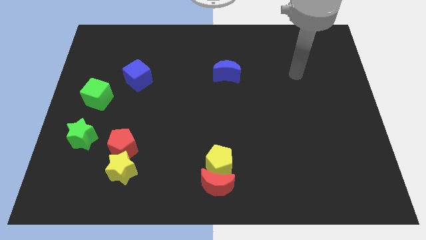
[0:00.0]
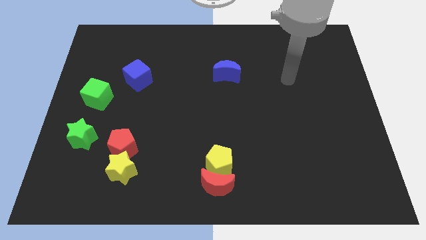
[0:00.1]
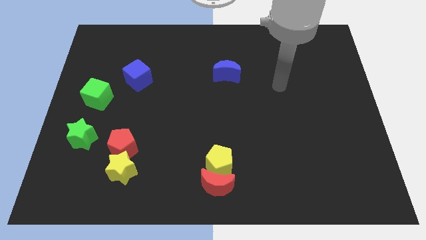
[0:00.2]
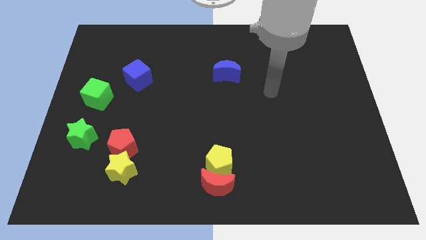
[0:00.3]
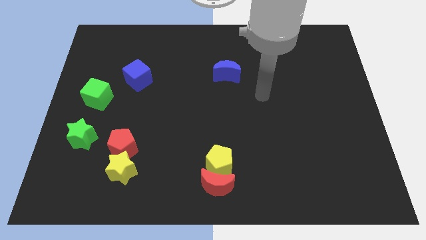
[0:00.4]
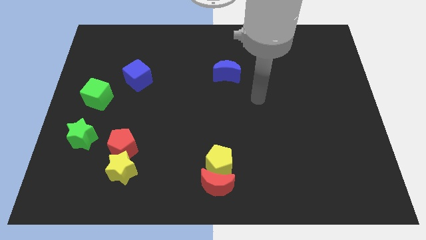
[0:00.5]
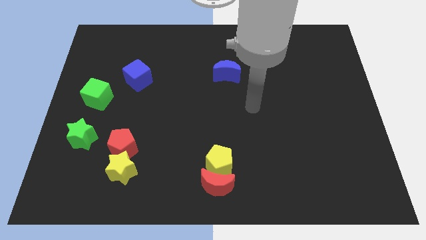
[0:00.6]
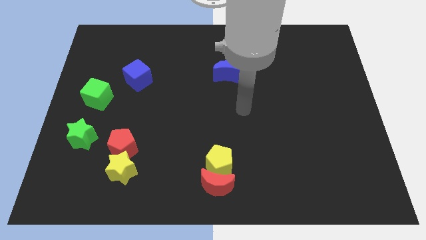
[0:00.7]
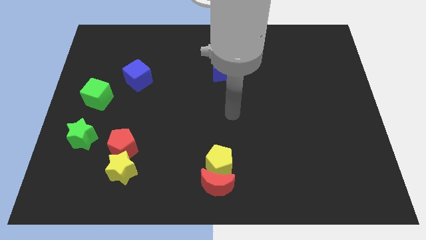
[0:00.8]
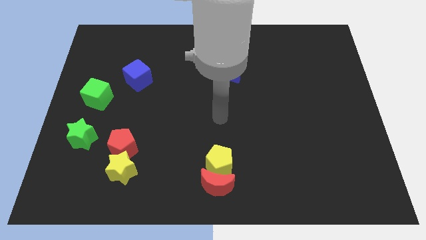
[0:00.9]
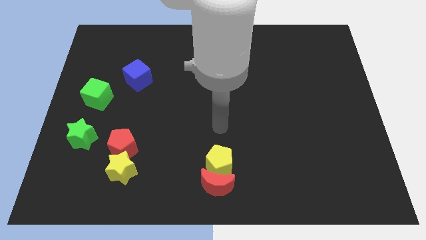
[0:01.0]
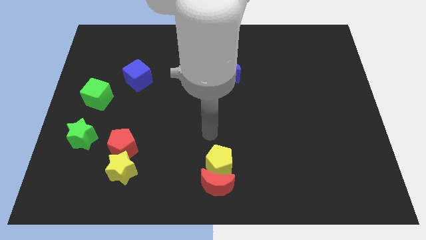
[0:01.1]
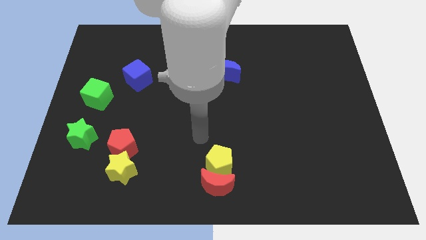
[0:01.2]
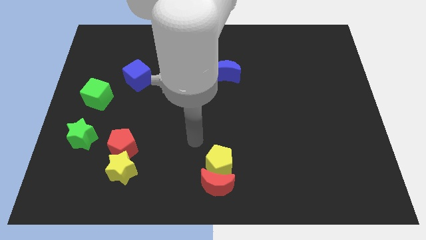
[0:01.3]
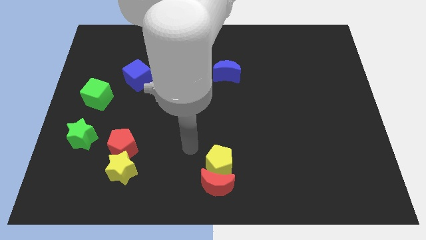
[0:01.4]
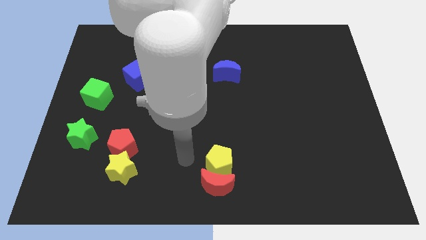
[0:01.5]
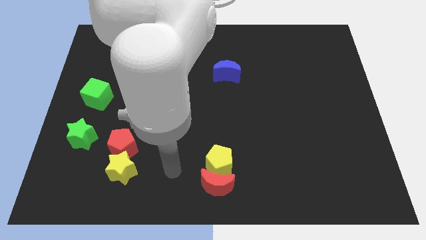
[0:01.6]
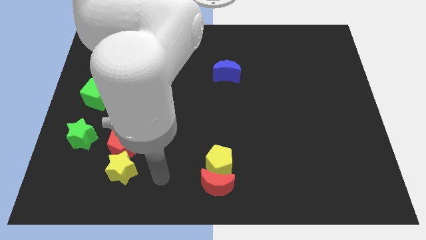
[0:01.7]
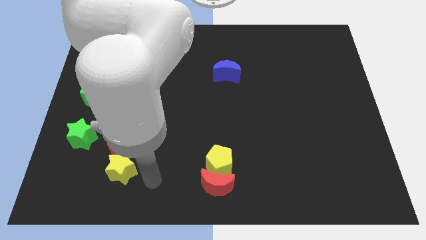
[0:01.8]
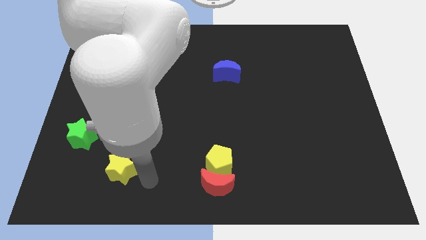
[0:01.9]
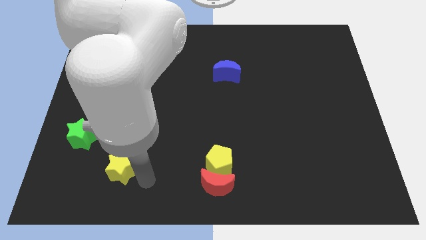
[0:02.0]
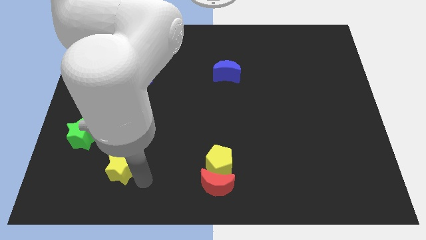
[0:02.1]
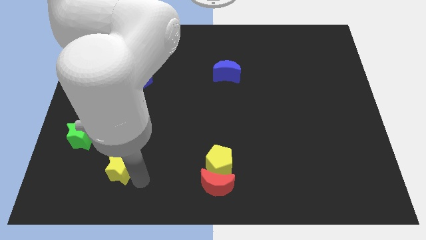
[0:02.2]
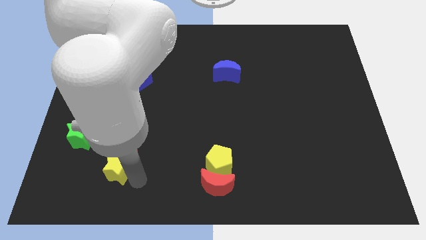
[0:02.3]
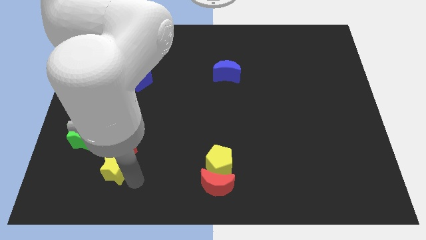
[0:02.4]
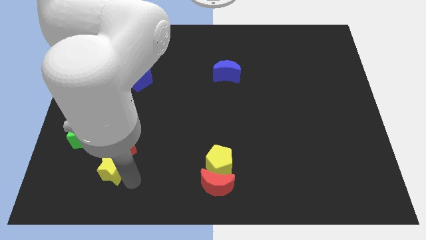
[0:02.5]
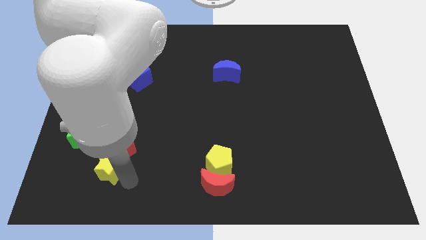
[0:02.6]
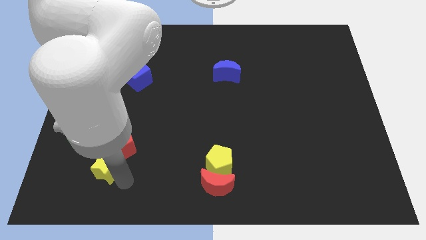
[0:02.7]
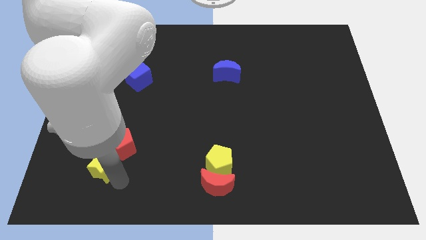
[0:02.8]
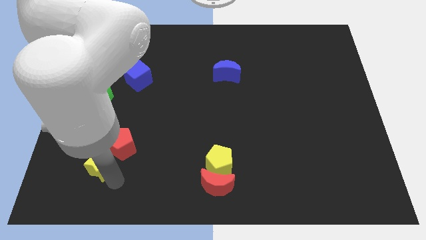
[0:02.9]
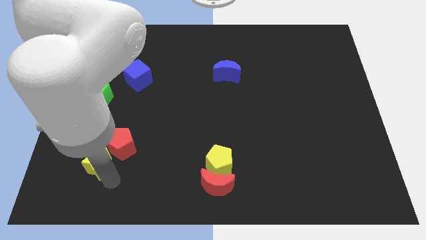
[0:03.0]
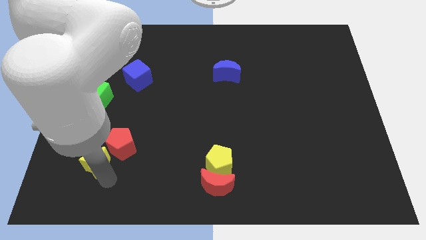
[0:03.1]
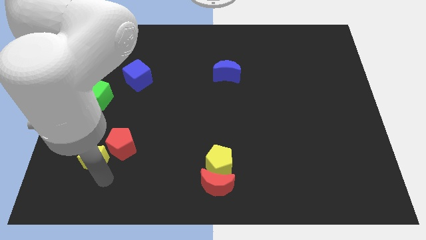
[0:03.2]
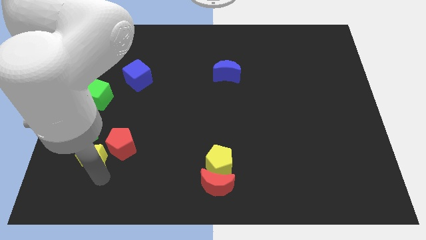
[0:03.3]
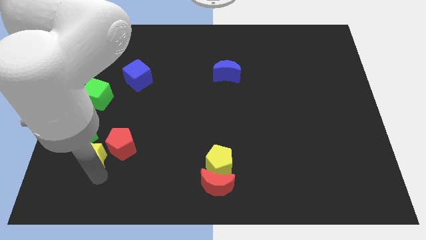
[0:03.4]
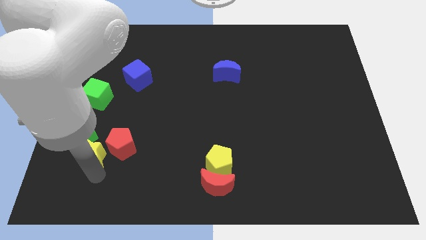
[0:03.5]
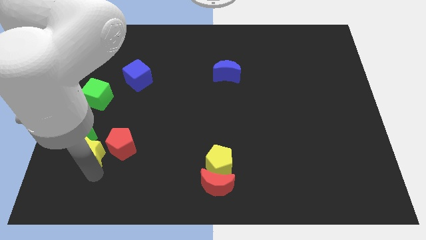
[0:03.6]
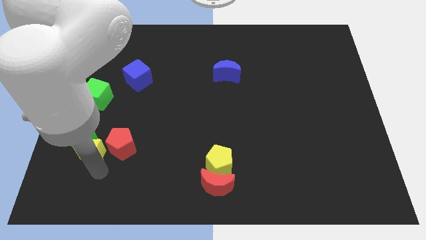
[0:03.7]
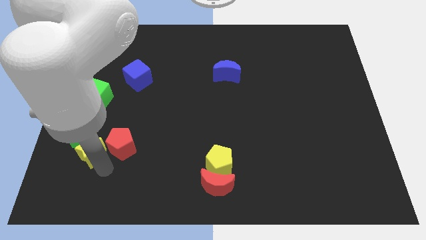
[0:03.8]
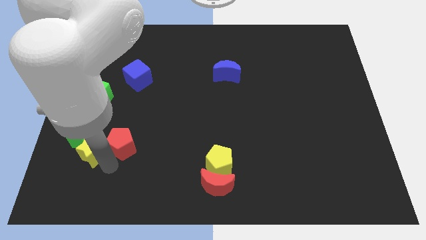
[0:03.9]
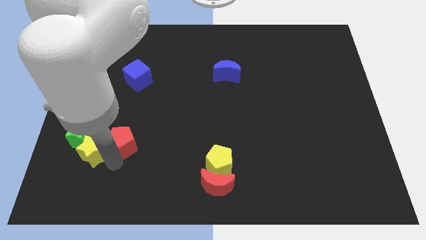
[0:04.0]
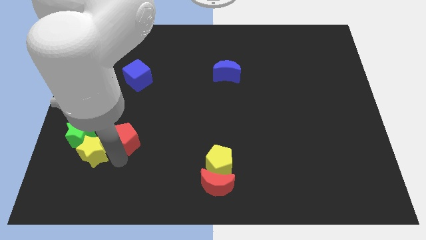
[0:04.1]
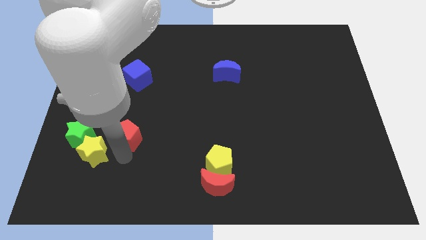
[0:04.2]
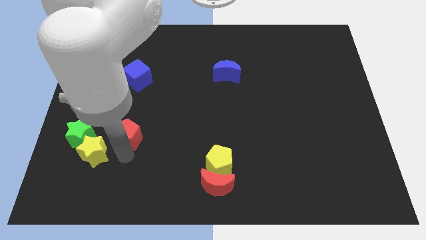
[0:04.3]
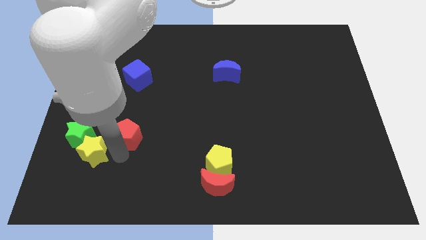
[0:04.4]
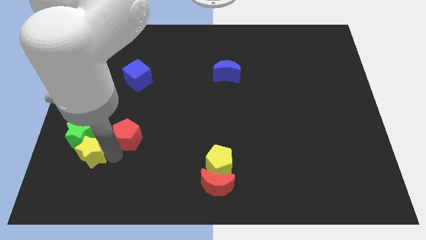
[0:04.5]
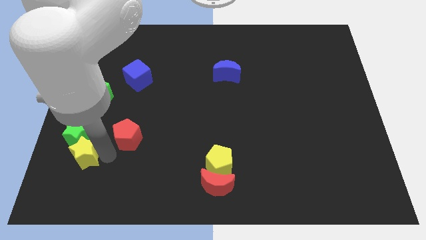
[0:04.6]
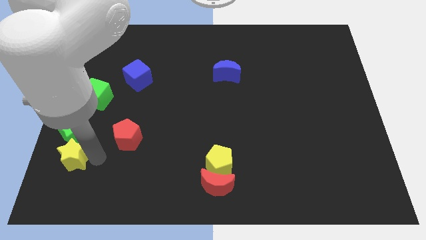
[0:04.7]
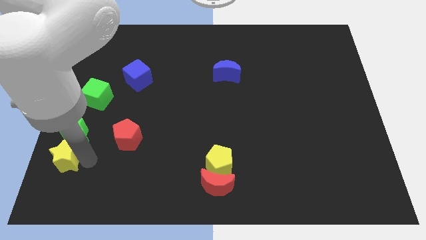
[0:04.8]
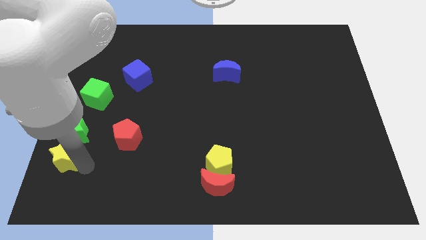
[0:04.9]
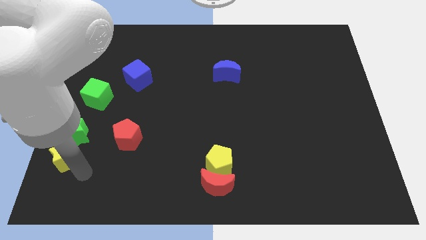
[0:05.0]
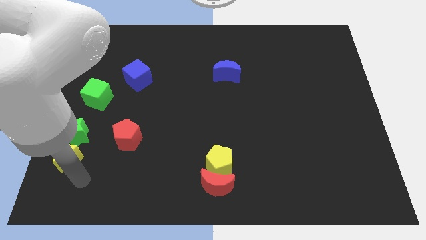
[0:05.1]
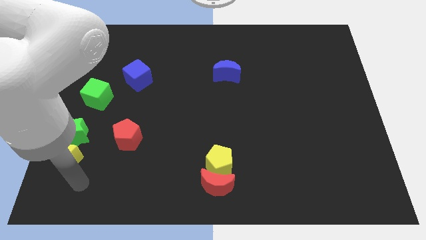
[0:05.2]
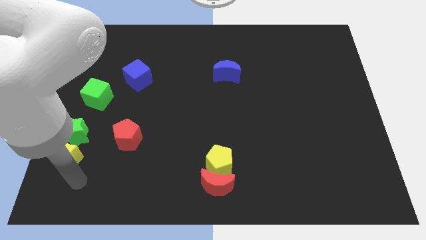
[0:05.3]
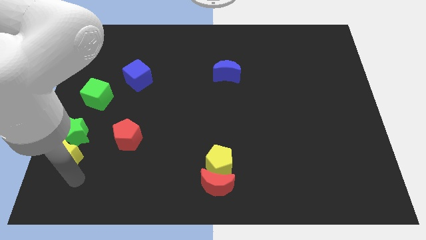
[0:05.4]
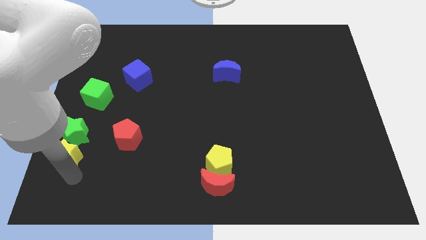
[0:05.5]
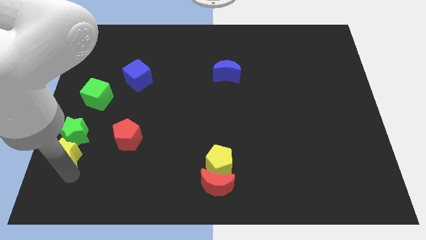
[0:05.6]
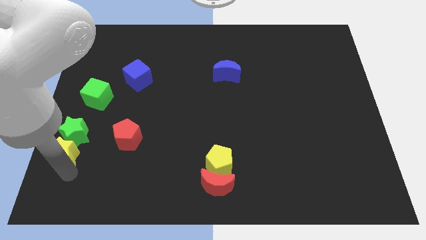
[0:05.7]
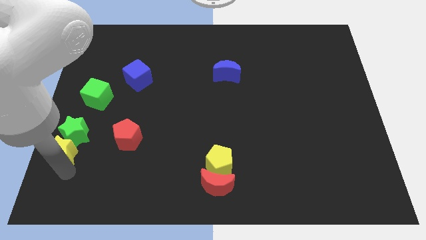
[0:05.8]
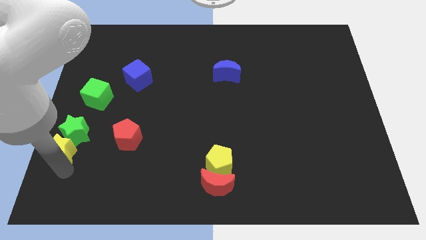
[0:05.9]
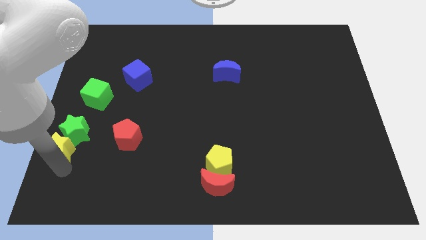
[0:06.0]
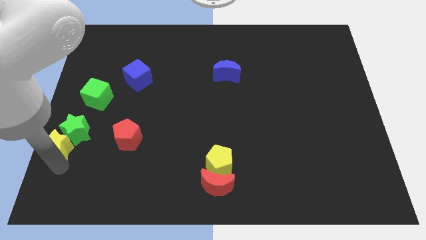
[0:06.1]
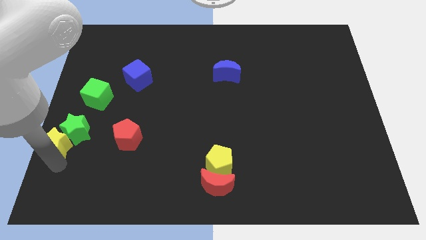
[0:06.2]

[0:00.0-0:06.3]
push the yellow star to the left side of the board
